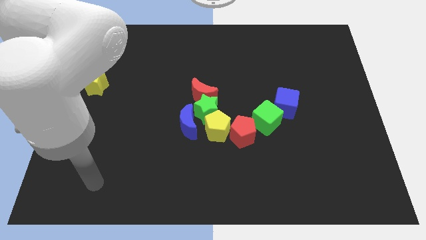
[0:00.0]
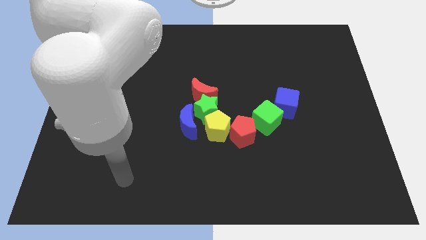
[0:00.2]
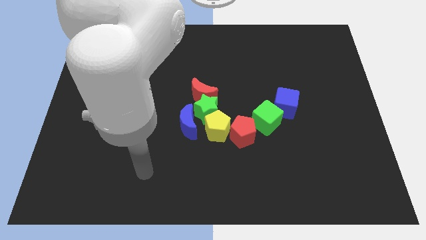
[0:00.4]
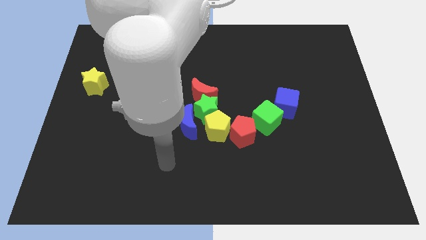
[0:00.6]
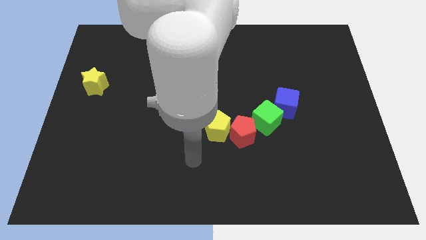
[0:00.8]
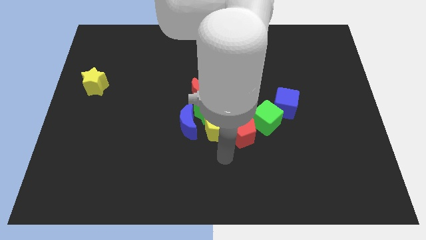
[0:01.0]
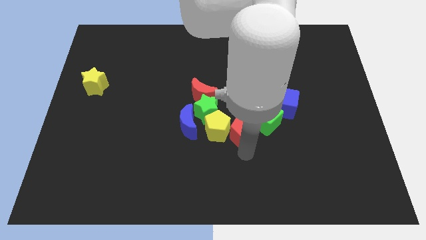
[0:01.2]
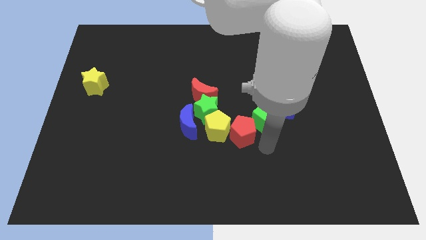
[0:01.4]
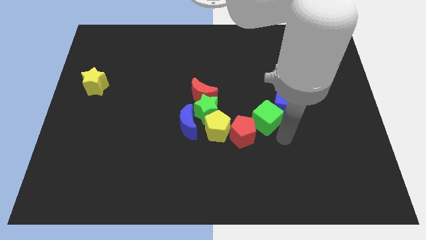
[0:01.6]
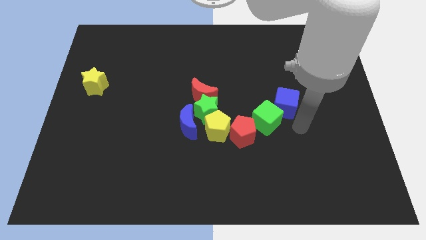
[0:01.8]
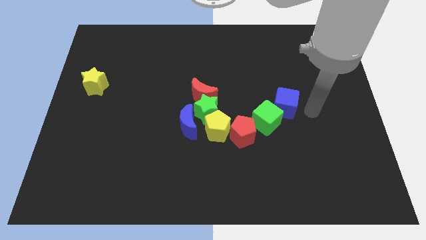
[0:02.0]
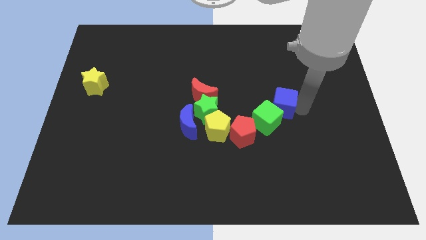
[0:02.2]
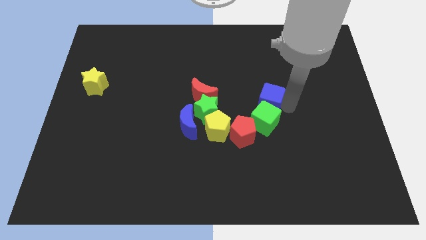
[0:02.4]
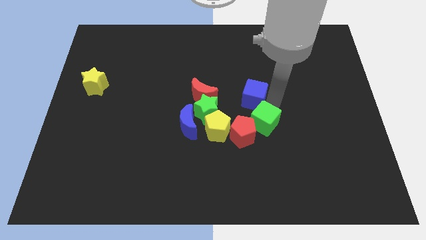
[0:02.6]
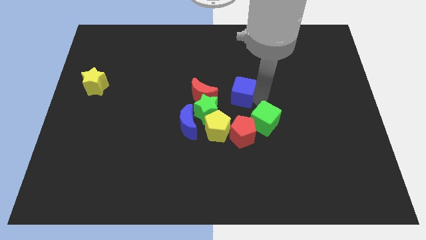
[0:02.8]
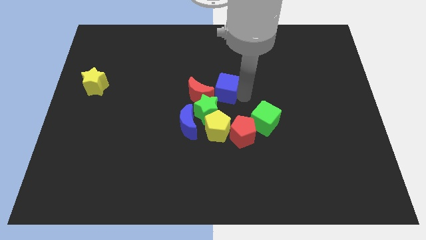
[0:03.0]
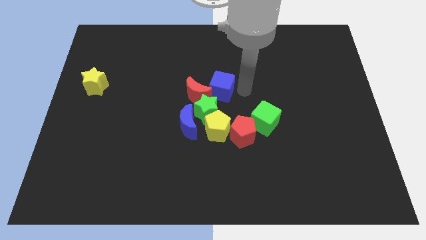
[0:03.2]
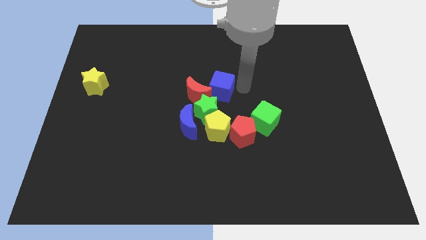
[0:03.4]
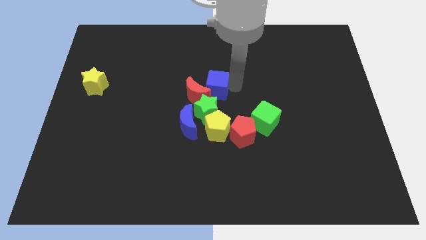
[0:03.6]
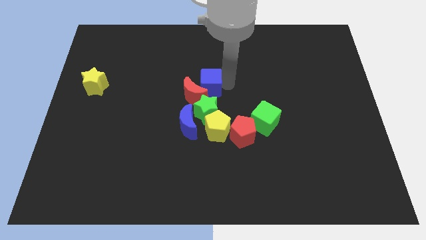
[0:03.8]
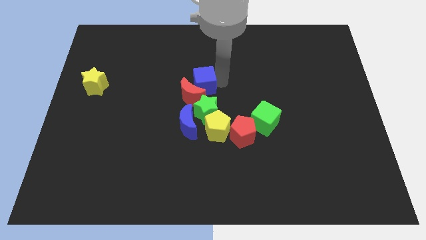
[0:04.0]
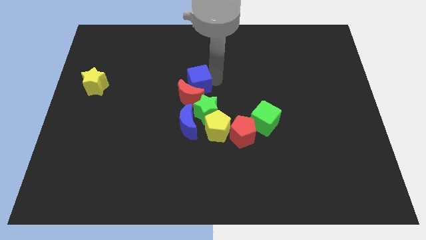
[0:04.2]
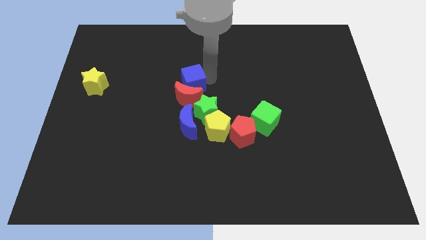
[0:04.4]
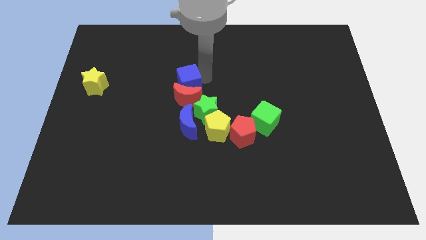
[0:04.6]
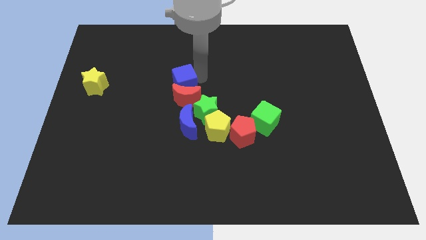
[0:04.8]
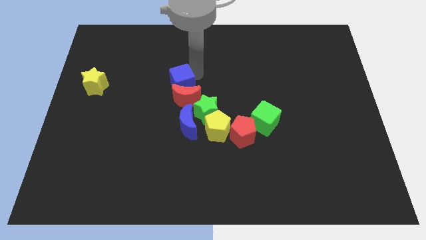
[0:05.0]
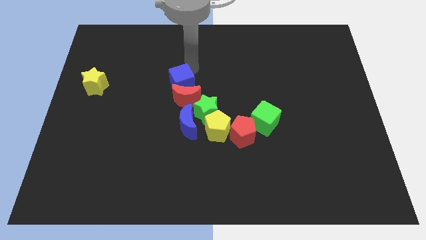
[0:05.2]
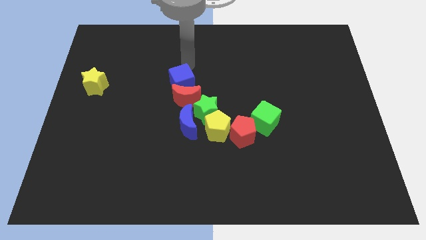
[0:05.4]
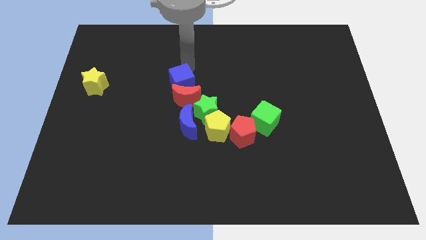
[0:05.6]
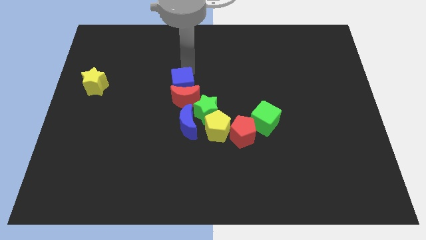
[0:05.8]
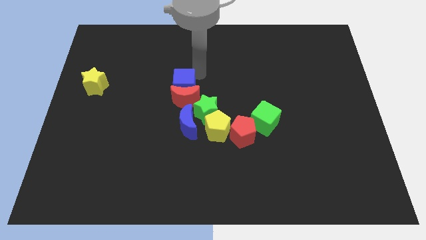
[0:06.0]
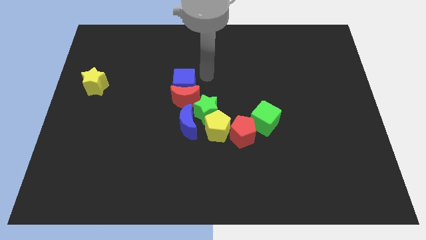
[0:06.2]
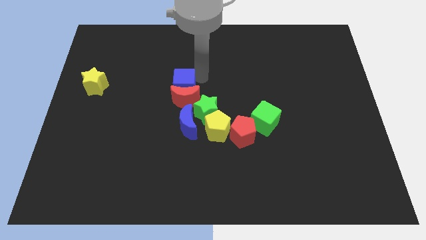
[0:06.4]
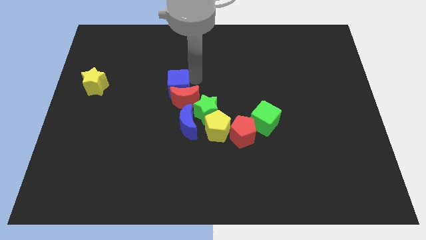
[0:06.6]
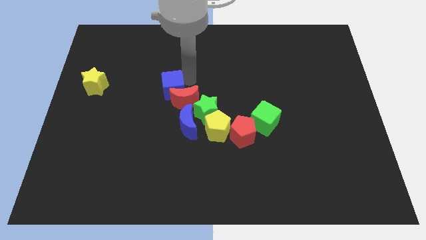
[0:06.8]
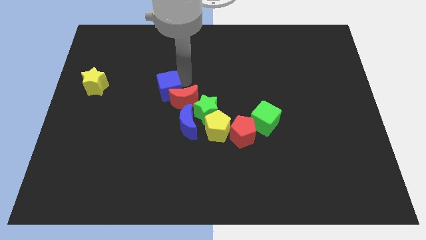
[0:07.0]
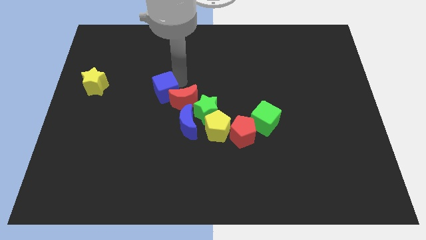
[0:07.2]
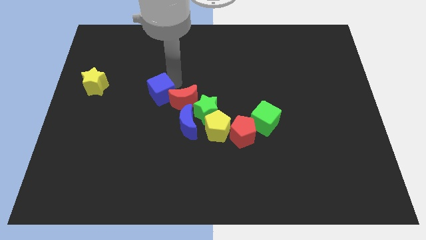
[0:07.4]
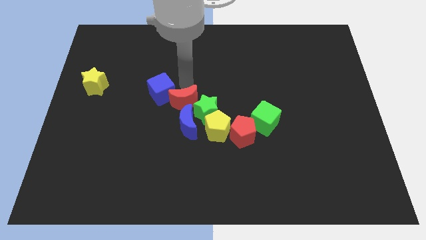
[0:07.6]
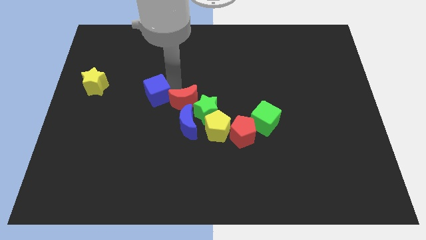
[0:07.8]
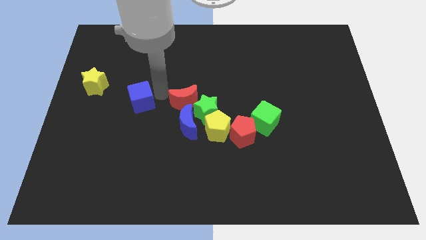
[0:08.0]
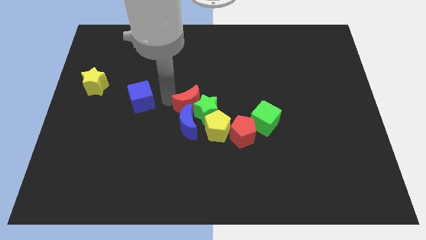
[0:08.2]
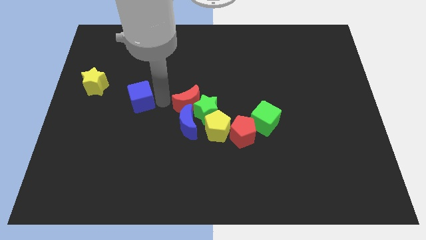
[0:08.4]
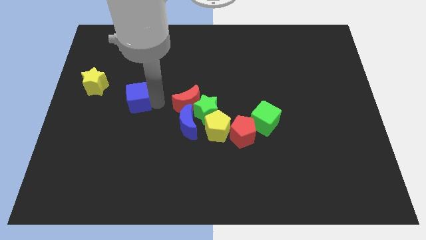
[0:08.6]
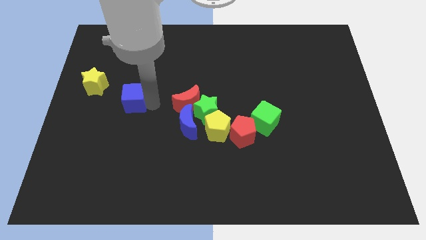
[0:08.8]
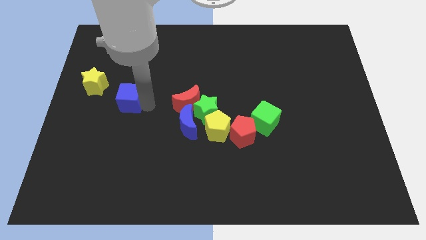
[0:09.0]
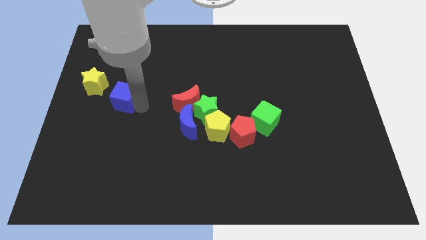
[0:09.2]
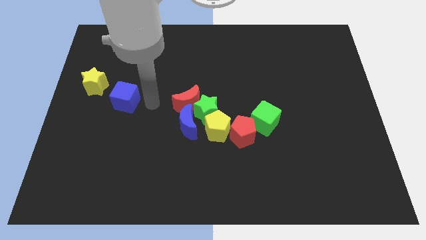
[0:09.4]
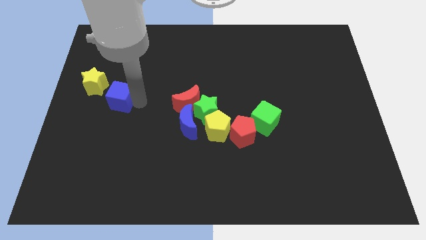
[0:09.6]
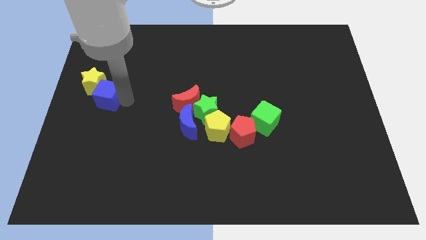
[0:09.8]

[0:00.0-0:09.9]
put the blue cube to the left side of the board

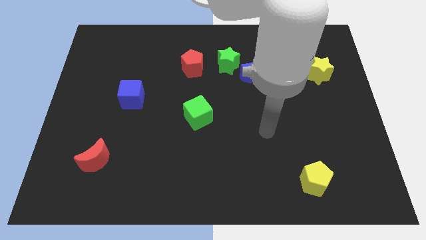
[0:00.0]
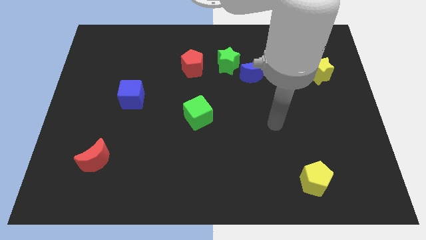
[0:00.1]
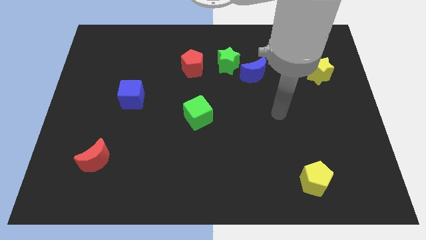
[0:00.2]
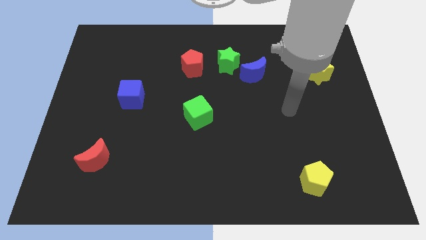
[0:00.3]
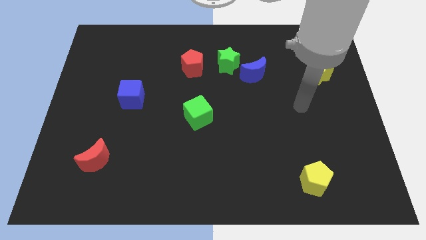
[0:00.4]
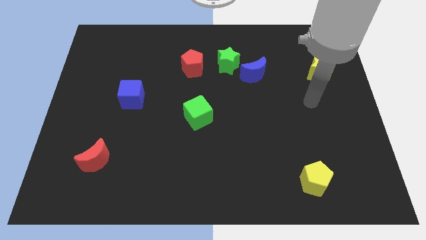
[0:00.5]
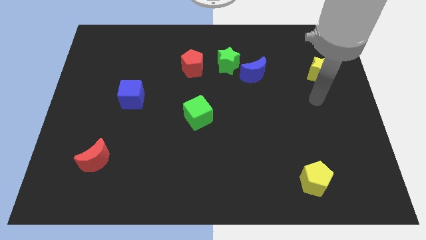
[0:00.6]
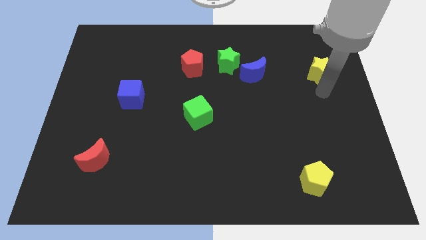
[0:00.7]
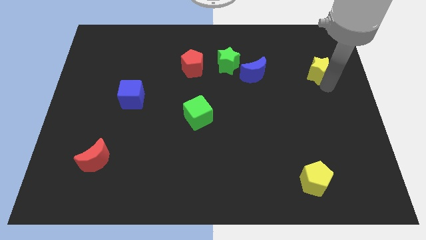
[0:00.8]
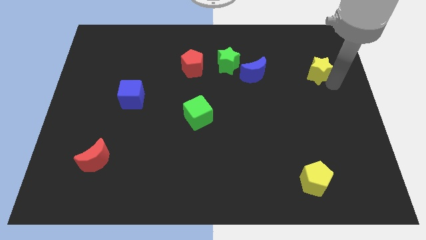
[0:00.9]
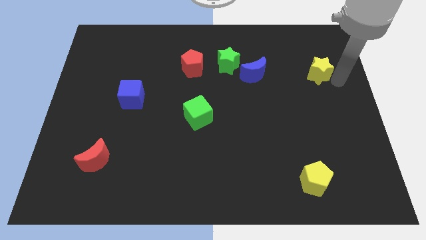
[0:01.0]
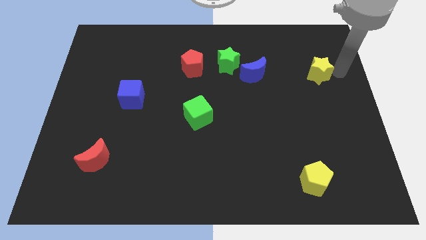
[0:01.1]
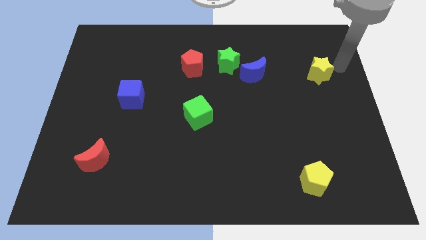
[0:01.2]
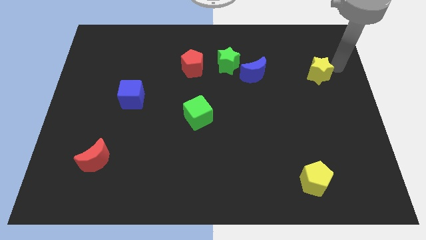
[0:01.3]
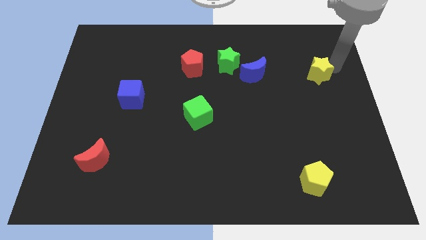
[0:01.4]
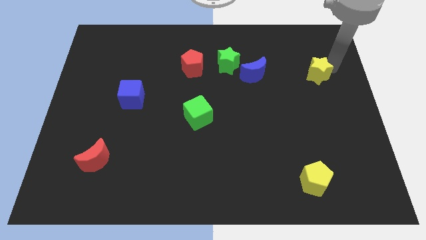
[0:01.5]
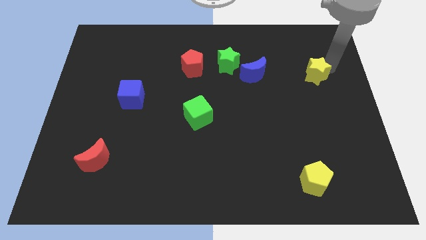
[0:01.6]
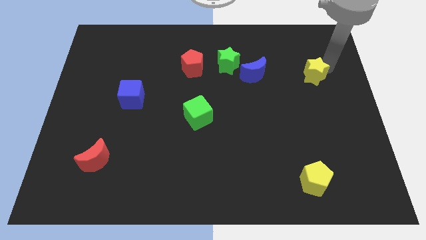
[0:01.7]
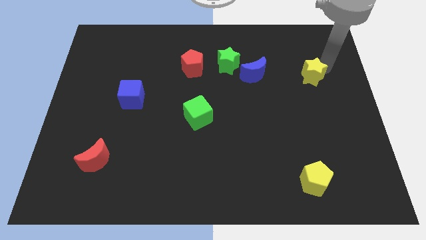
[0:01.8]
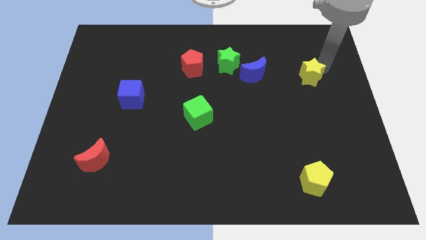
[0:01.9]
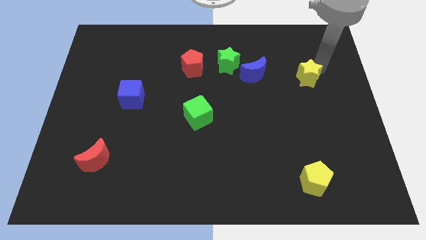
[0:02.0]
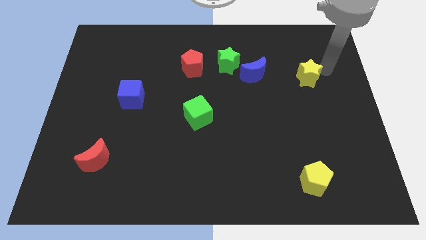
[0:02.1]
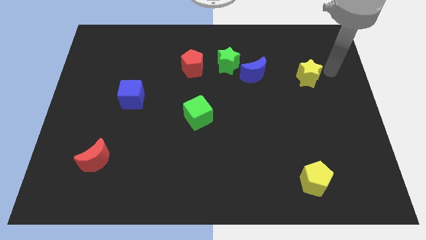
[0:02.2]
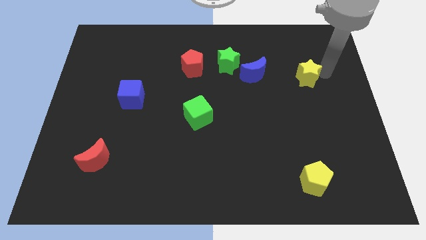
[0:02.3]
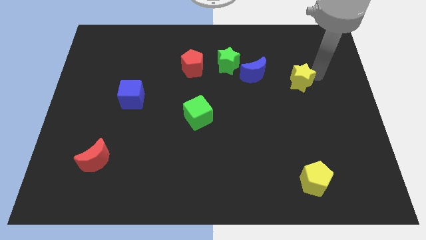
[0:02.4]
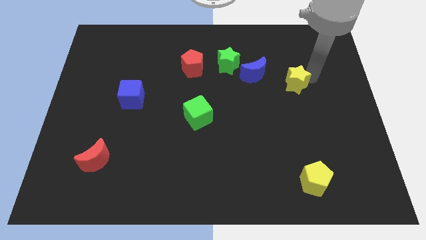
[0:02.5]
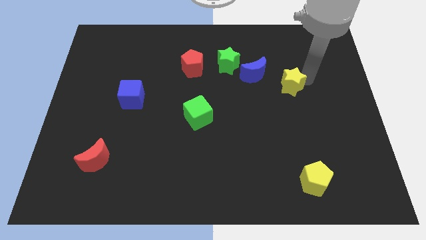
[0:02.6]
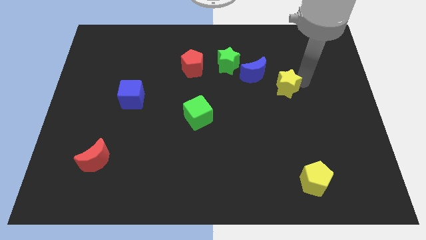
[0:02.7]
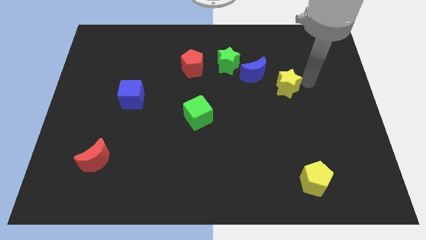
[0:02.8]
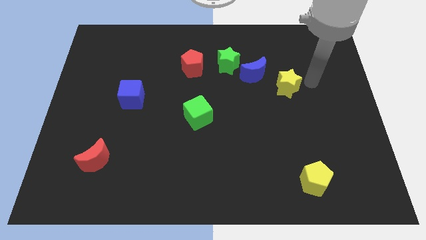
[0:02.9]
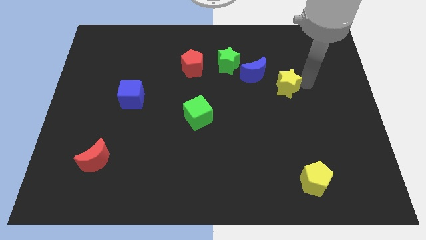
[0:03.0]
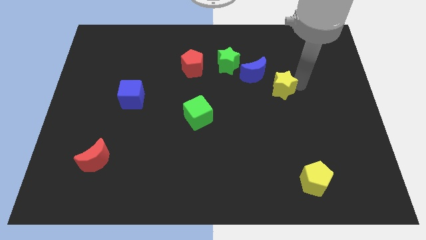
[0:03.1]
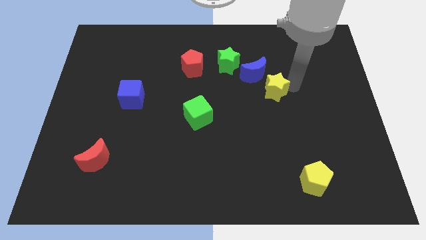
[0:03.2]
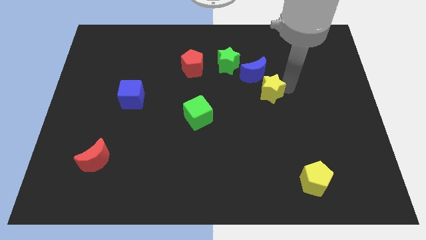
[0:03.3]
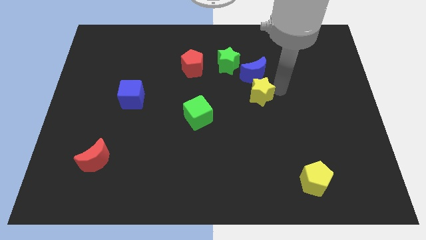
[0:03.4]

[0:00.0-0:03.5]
move the yellow star to the middle
